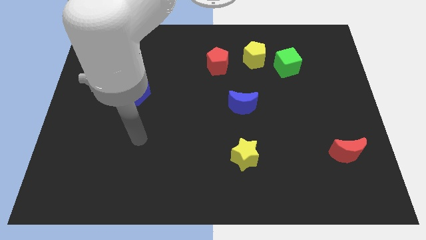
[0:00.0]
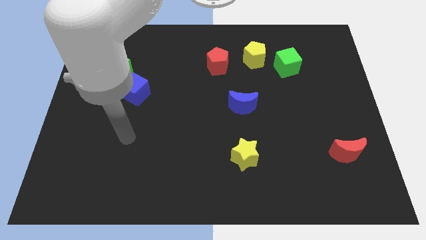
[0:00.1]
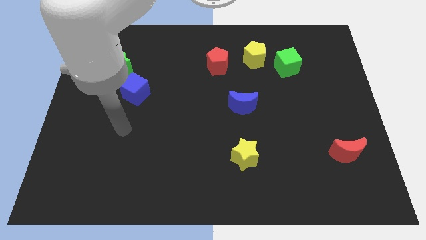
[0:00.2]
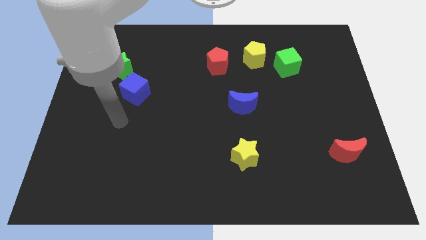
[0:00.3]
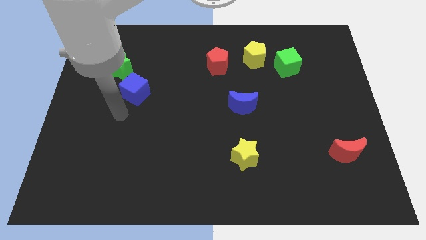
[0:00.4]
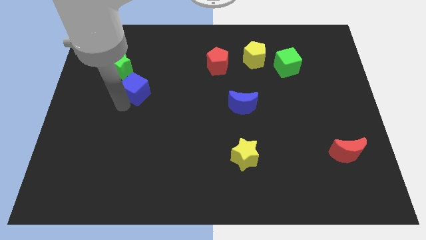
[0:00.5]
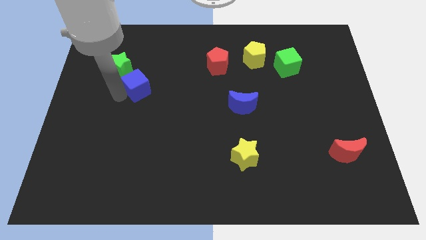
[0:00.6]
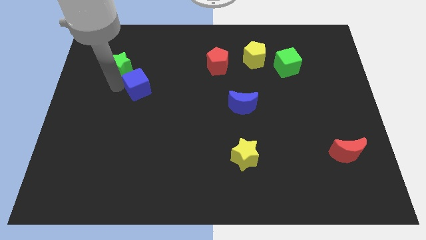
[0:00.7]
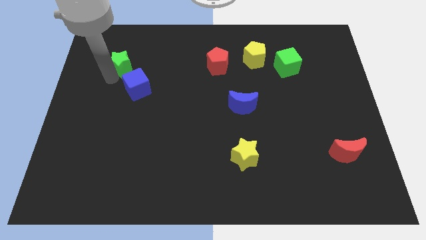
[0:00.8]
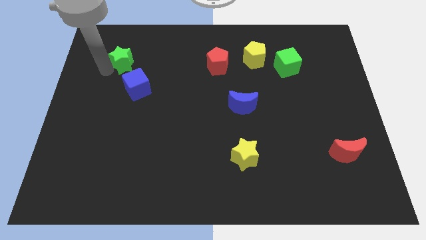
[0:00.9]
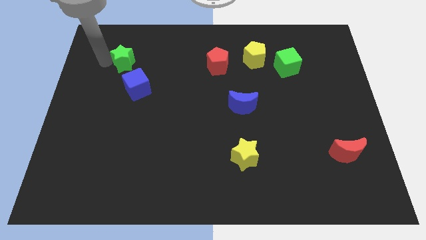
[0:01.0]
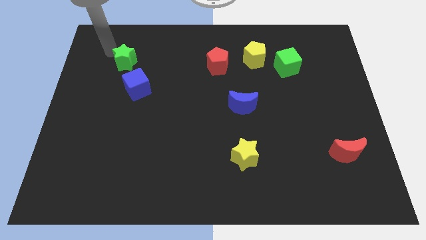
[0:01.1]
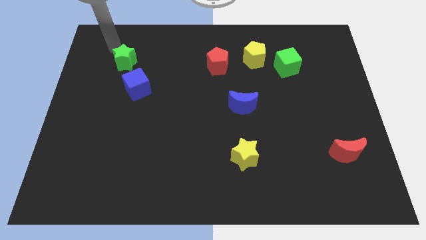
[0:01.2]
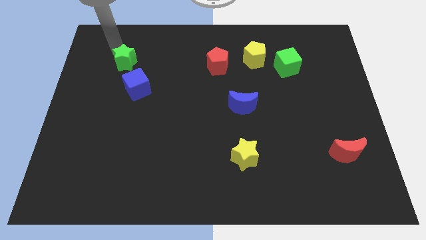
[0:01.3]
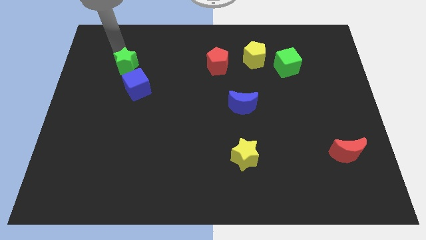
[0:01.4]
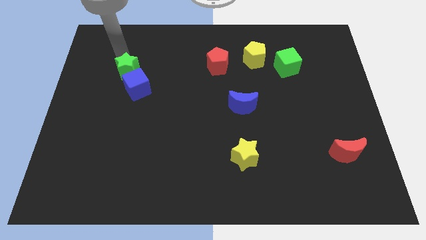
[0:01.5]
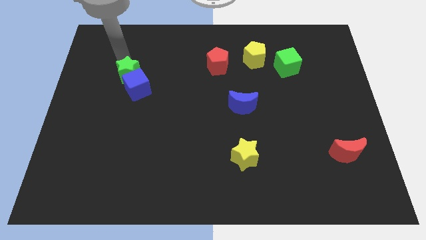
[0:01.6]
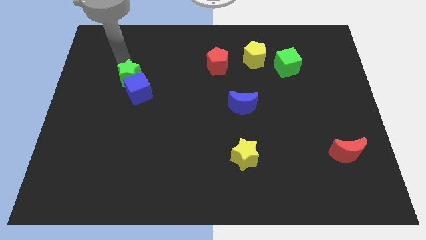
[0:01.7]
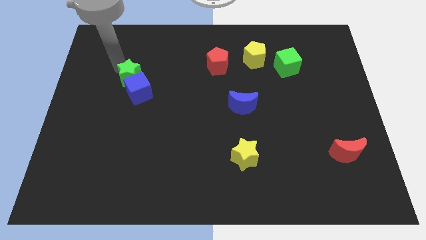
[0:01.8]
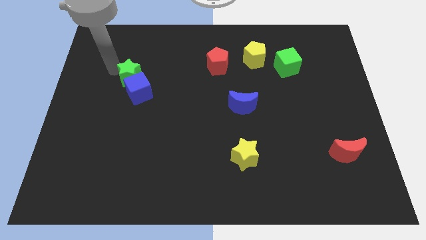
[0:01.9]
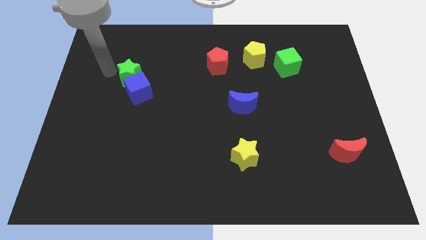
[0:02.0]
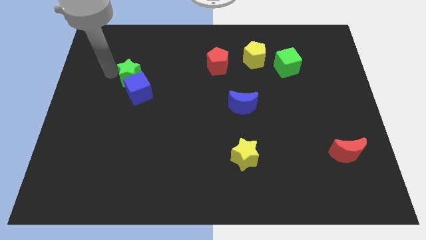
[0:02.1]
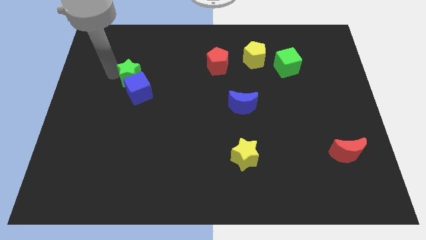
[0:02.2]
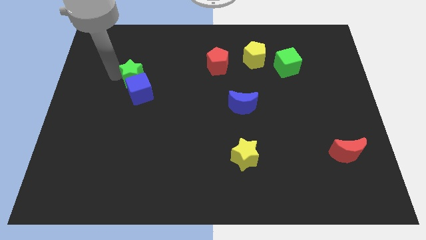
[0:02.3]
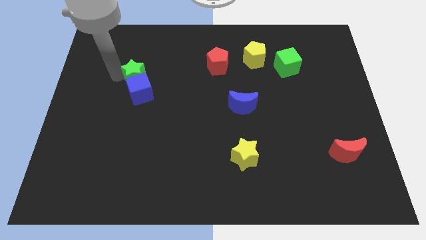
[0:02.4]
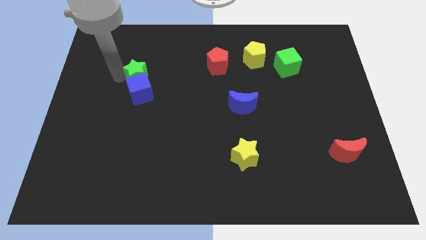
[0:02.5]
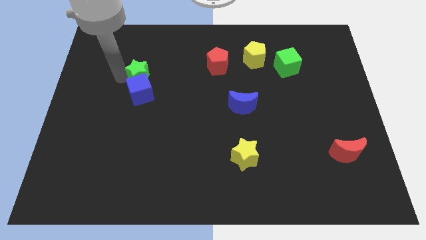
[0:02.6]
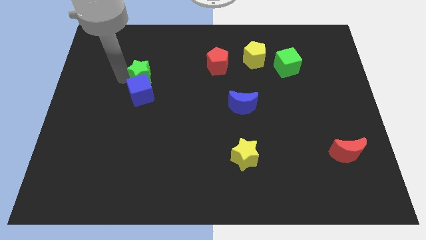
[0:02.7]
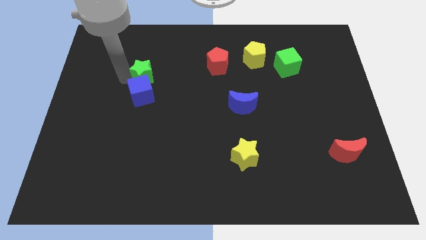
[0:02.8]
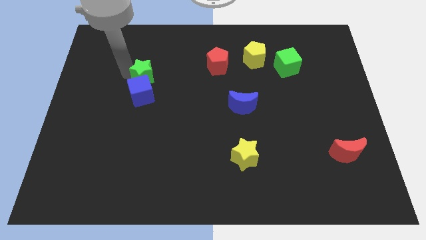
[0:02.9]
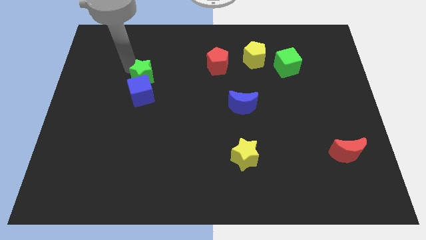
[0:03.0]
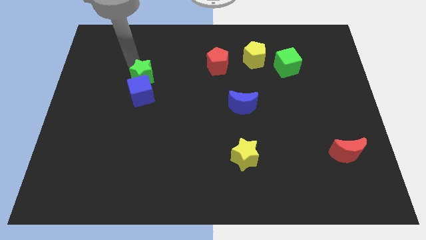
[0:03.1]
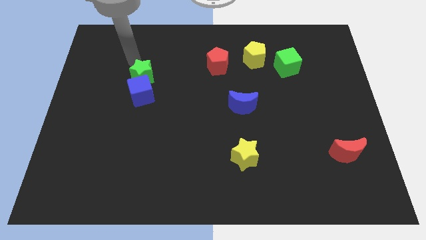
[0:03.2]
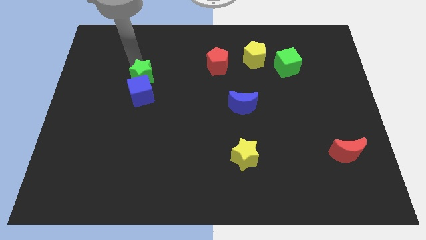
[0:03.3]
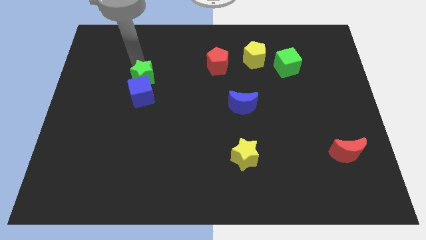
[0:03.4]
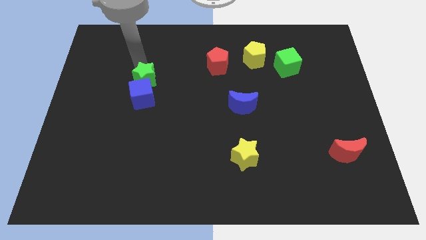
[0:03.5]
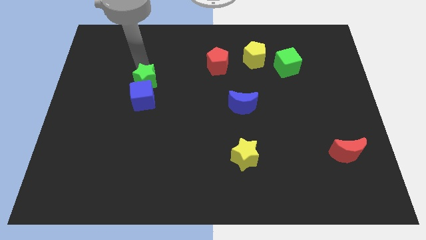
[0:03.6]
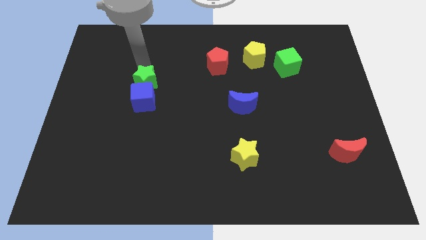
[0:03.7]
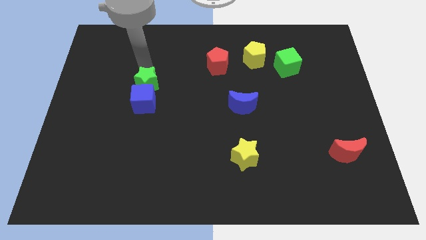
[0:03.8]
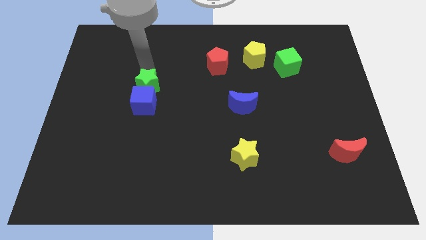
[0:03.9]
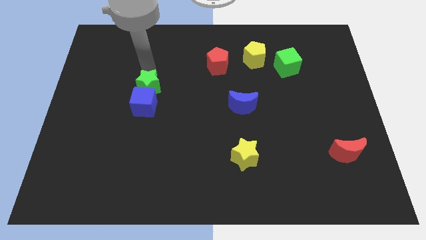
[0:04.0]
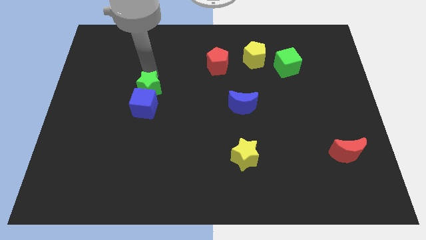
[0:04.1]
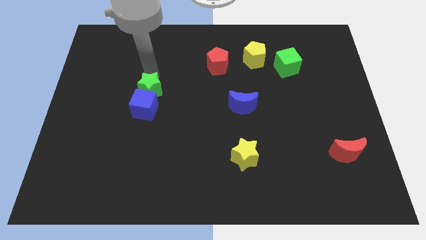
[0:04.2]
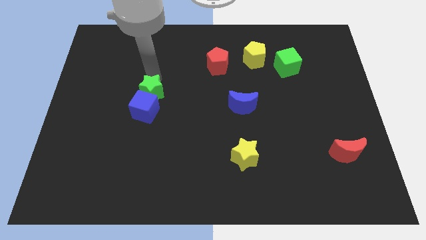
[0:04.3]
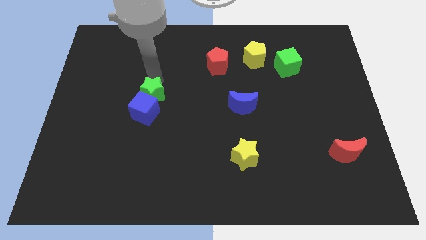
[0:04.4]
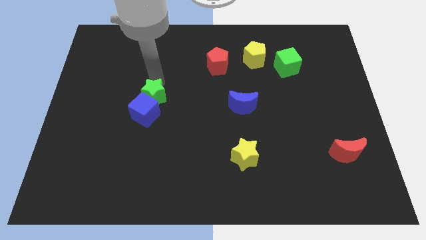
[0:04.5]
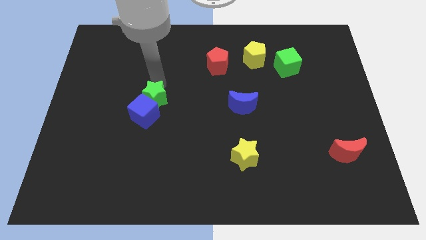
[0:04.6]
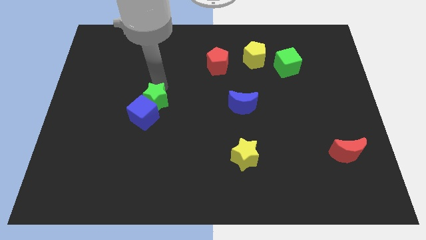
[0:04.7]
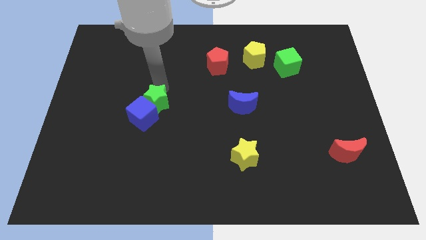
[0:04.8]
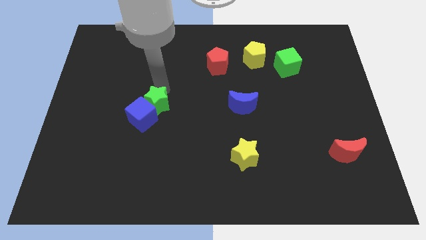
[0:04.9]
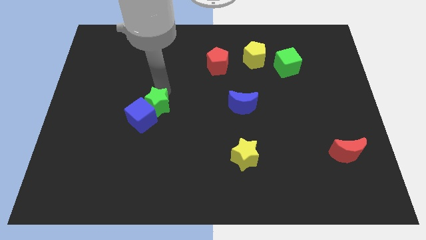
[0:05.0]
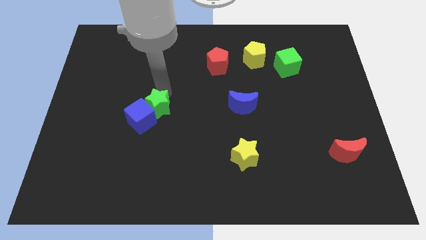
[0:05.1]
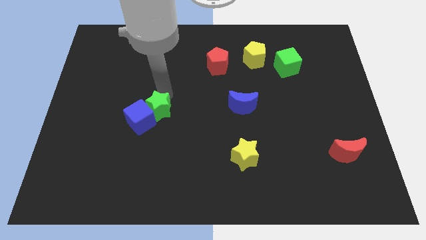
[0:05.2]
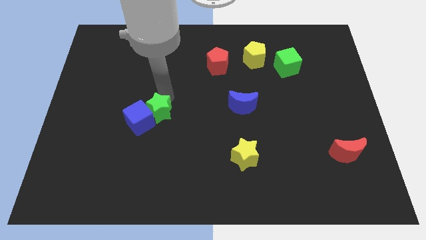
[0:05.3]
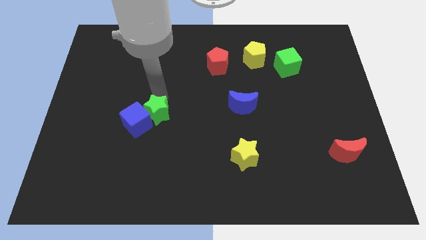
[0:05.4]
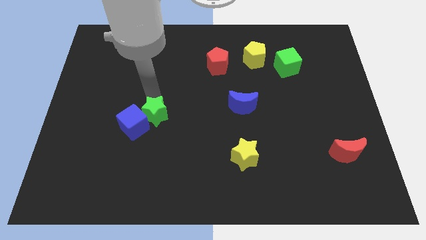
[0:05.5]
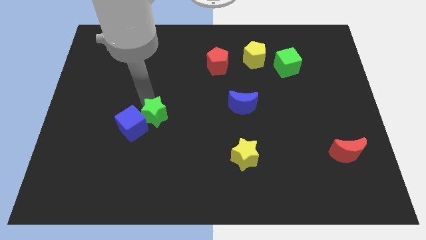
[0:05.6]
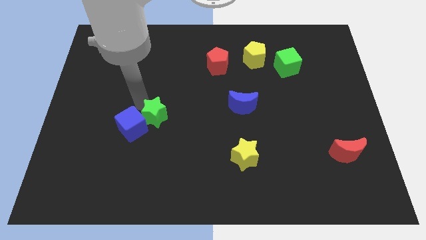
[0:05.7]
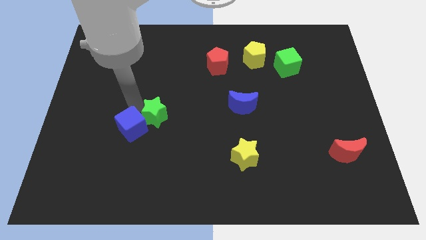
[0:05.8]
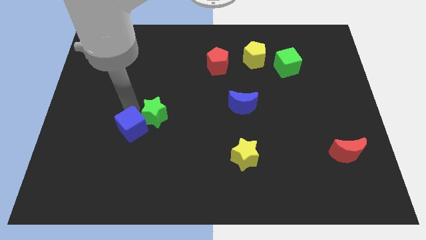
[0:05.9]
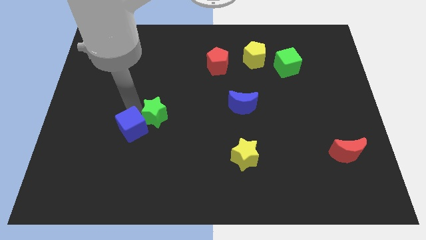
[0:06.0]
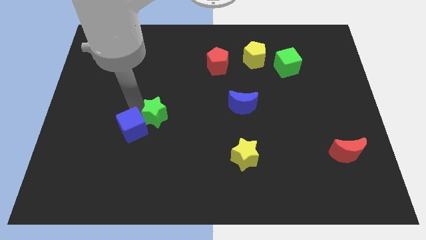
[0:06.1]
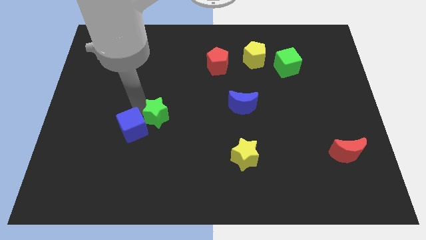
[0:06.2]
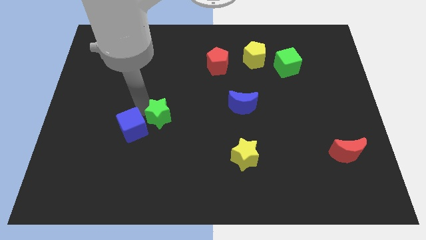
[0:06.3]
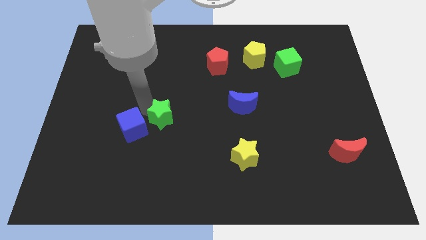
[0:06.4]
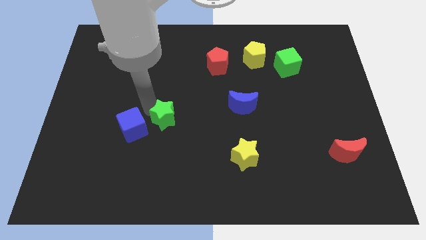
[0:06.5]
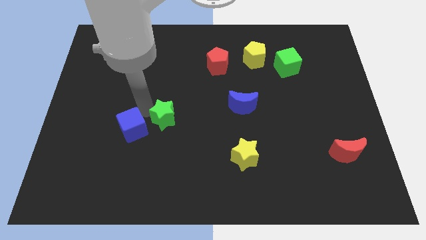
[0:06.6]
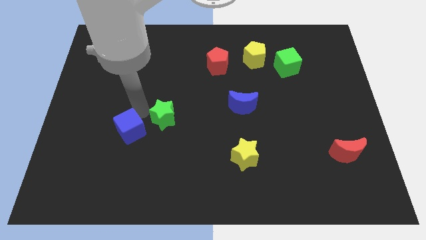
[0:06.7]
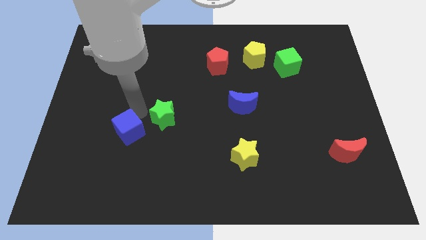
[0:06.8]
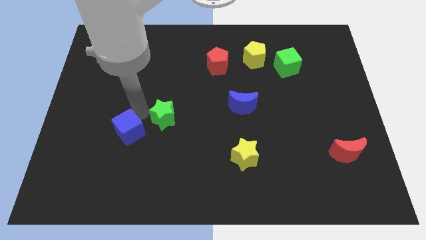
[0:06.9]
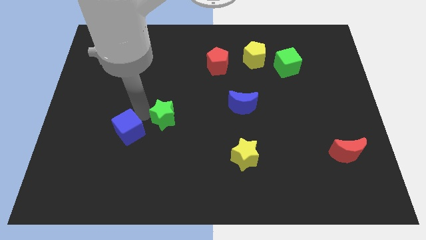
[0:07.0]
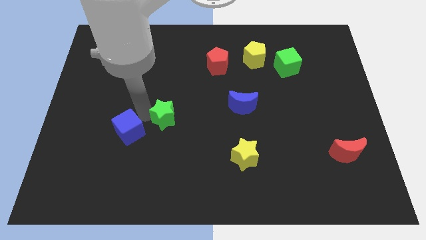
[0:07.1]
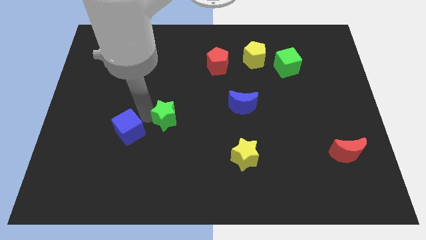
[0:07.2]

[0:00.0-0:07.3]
slide the green star down and to the right diagonally

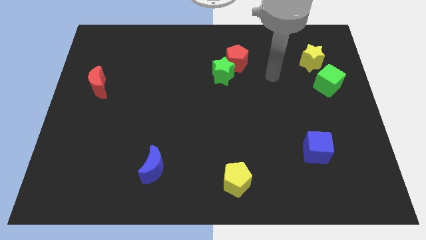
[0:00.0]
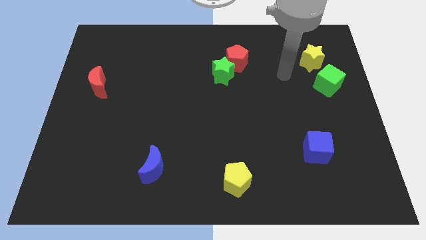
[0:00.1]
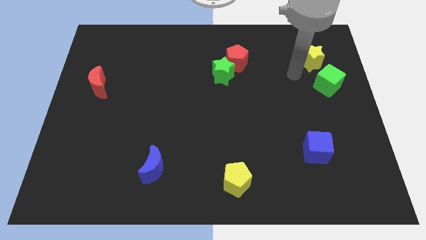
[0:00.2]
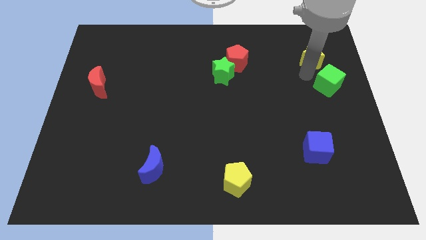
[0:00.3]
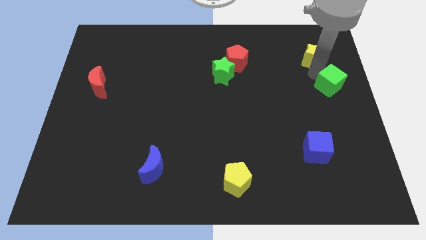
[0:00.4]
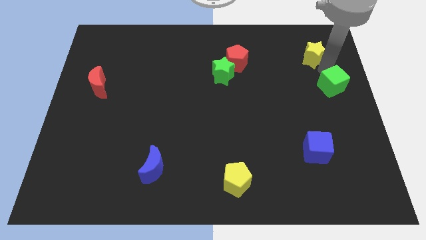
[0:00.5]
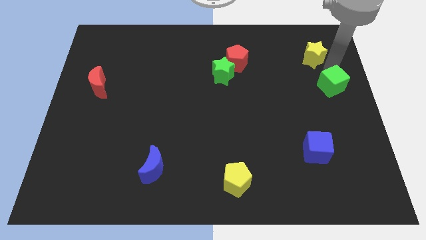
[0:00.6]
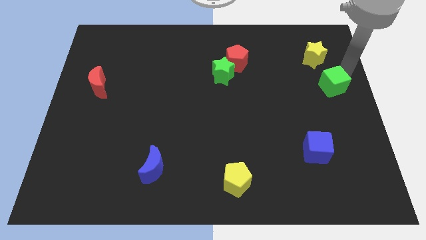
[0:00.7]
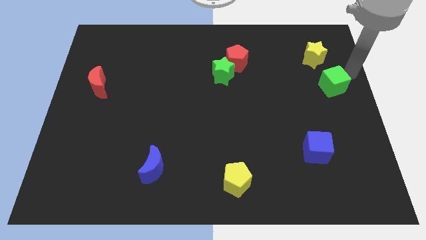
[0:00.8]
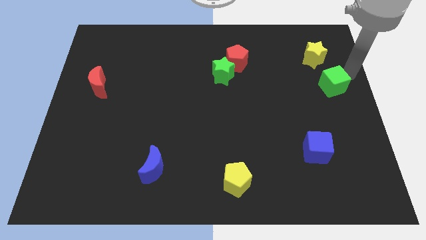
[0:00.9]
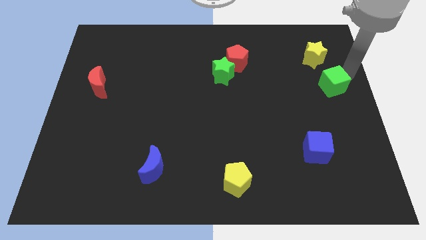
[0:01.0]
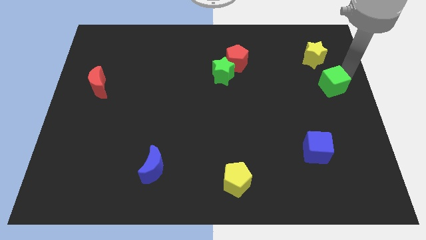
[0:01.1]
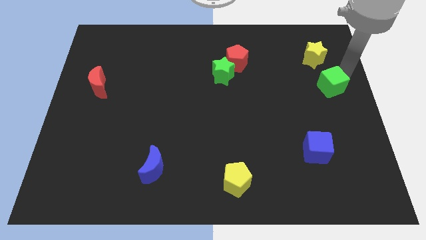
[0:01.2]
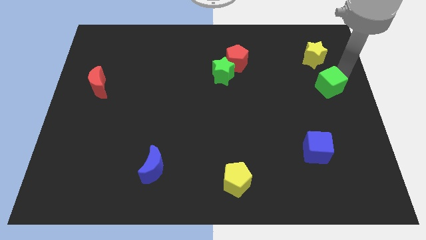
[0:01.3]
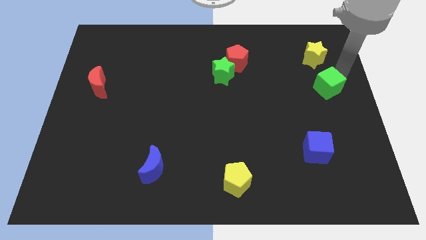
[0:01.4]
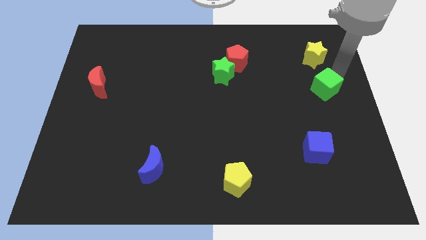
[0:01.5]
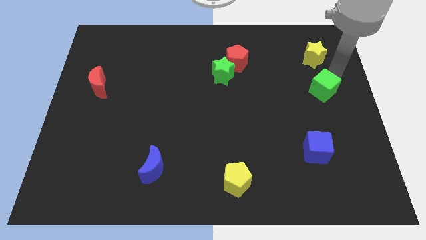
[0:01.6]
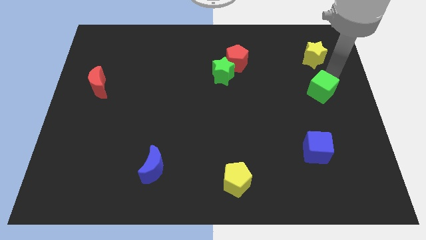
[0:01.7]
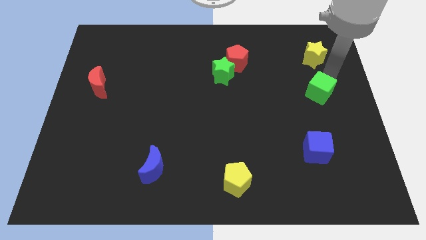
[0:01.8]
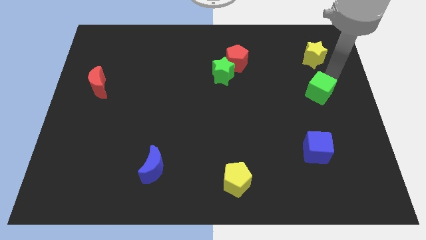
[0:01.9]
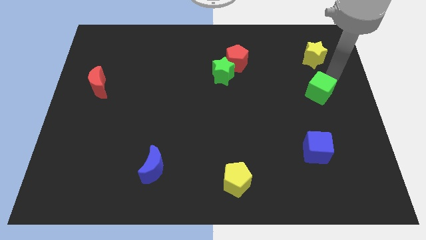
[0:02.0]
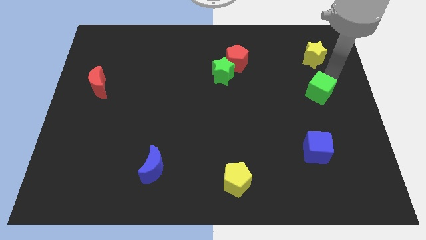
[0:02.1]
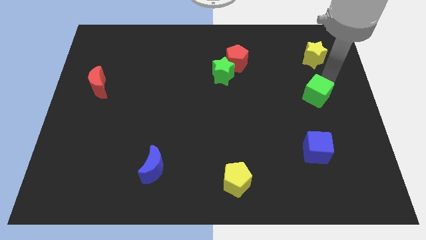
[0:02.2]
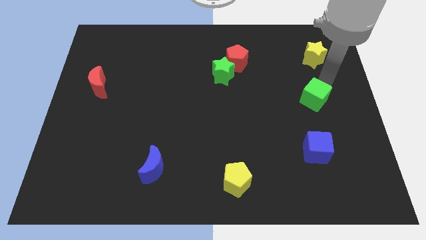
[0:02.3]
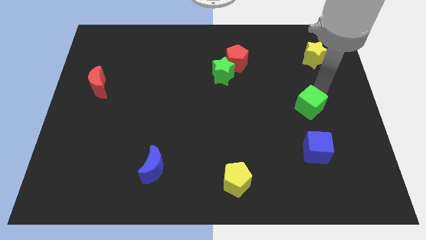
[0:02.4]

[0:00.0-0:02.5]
move the green cube down and left a little bit
